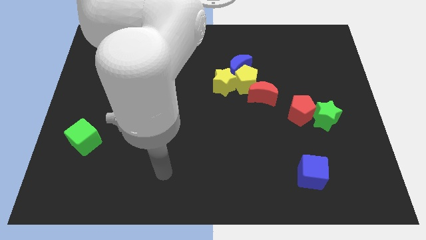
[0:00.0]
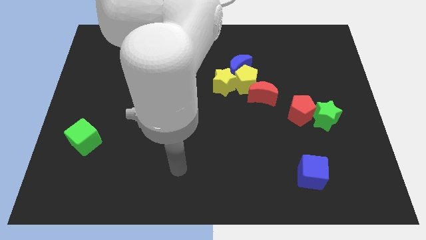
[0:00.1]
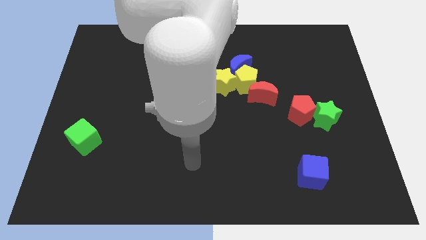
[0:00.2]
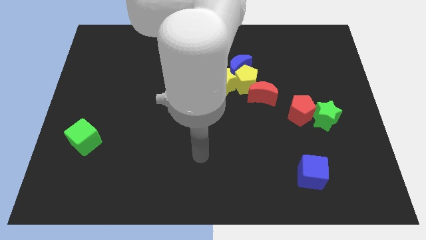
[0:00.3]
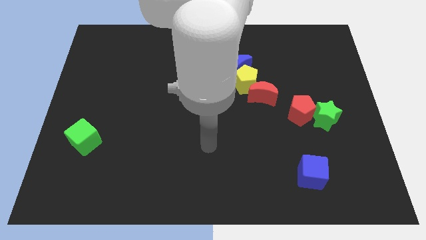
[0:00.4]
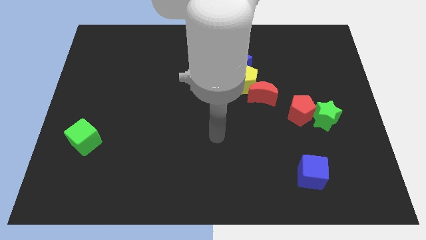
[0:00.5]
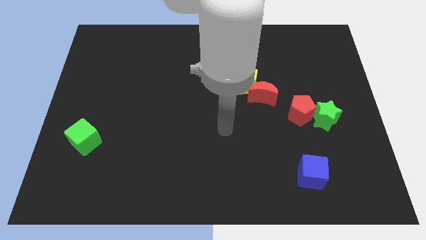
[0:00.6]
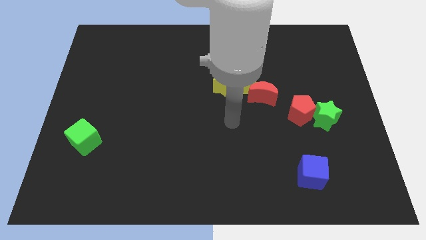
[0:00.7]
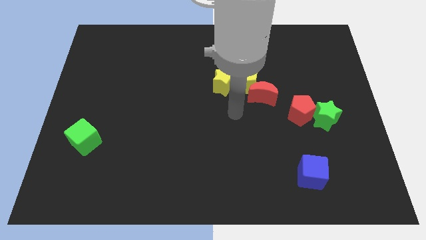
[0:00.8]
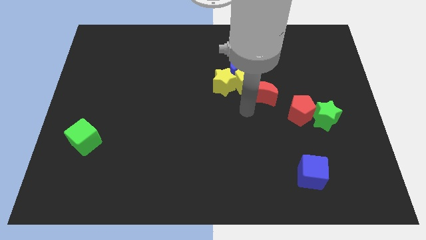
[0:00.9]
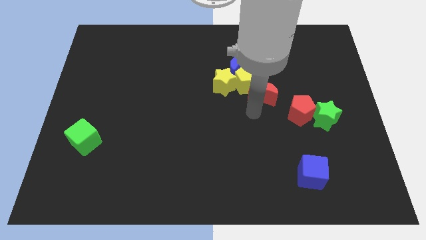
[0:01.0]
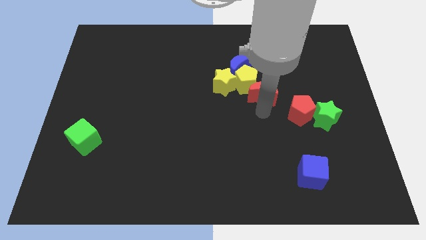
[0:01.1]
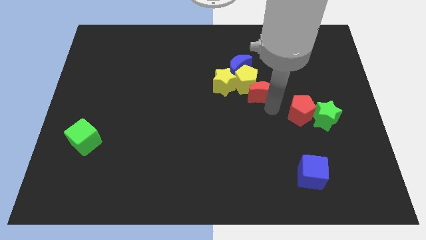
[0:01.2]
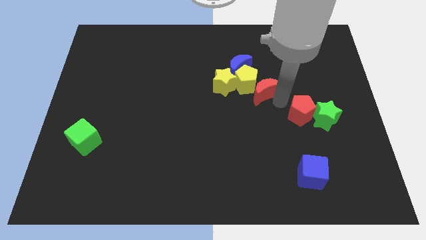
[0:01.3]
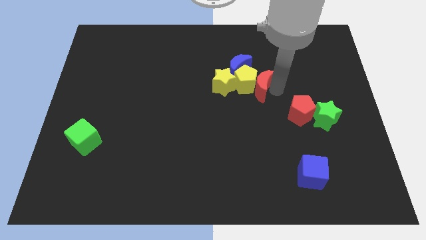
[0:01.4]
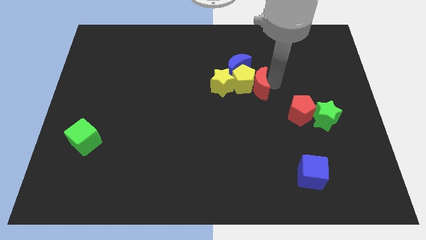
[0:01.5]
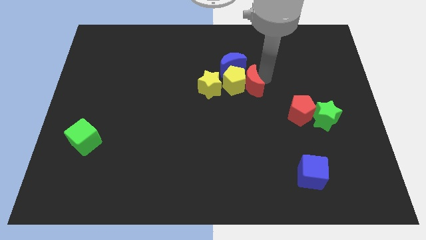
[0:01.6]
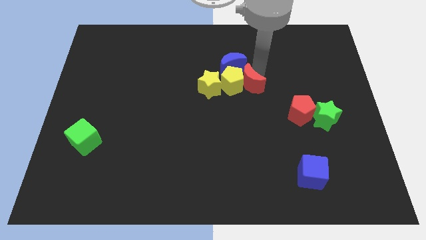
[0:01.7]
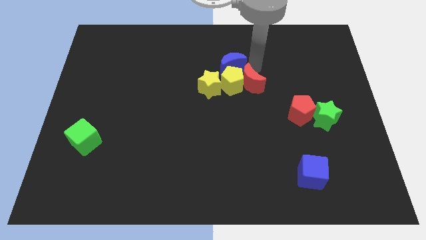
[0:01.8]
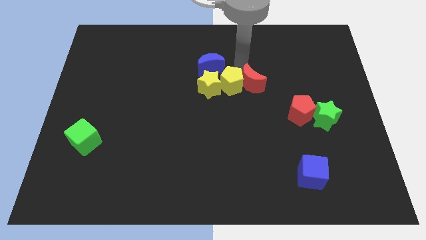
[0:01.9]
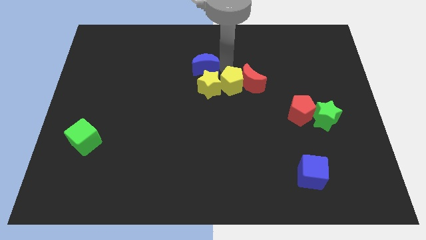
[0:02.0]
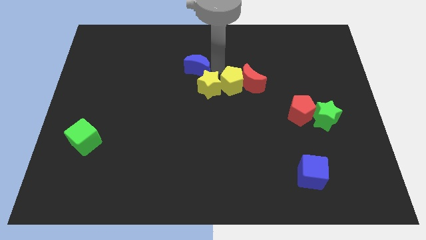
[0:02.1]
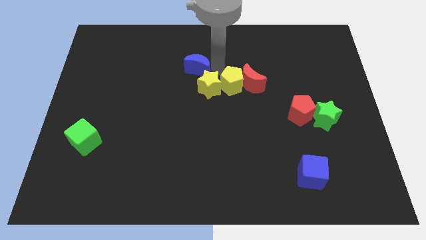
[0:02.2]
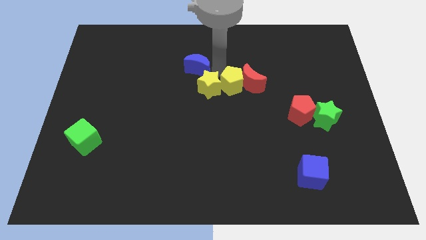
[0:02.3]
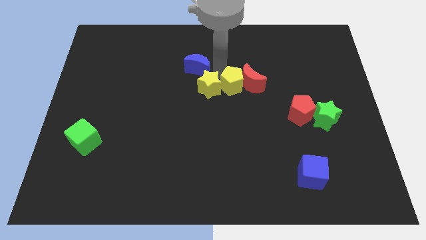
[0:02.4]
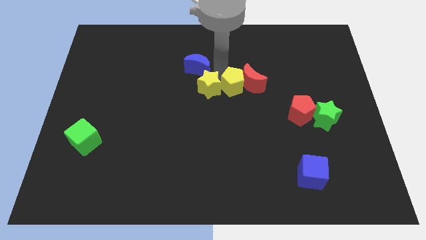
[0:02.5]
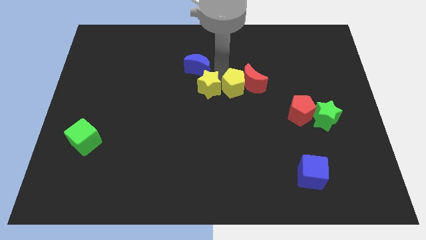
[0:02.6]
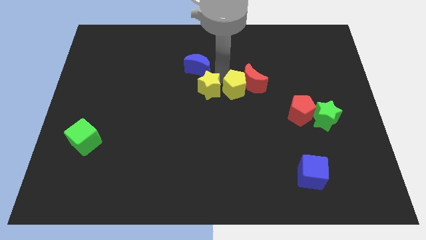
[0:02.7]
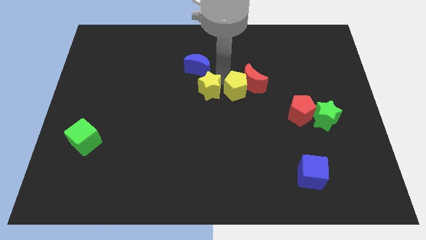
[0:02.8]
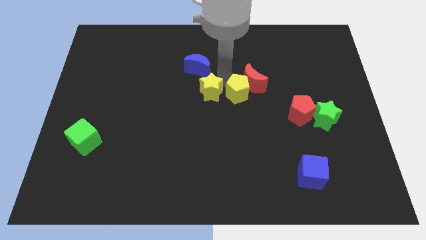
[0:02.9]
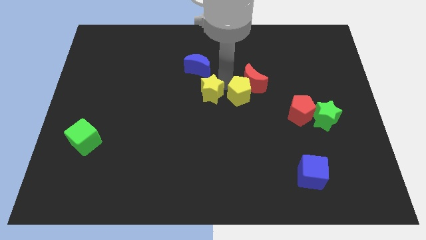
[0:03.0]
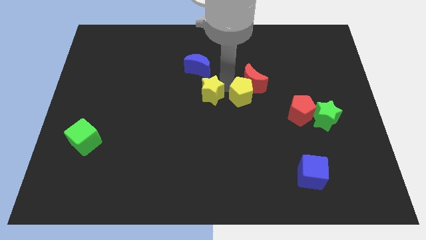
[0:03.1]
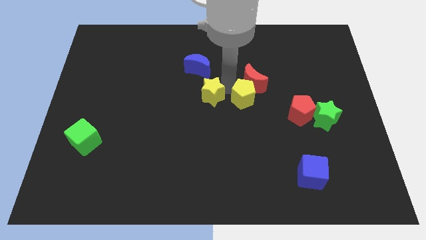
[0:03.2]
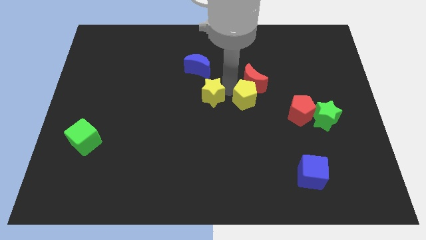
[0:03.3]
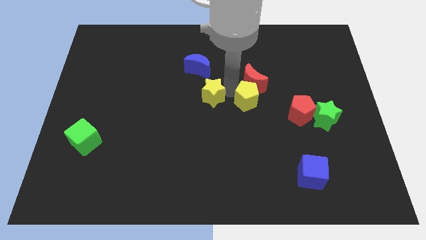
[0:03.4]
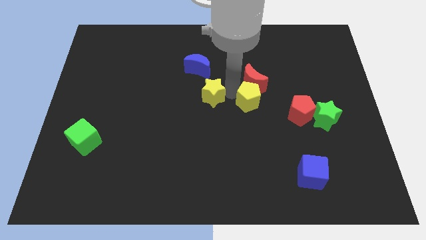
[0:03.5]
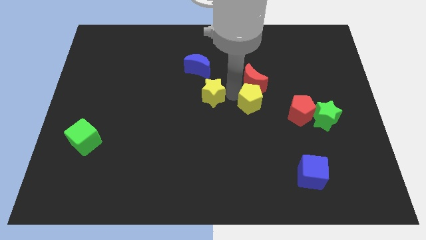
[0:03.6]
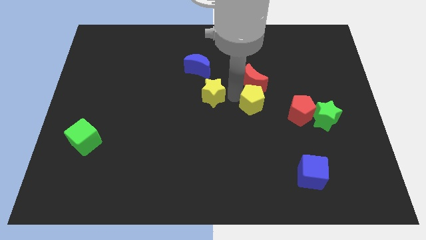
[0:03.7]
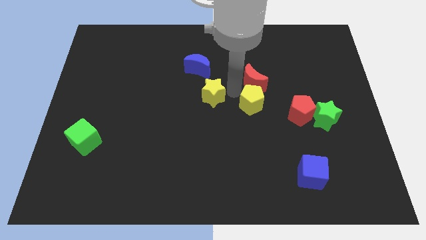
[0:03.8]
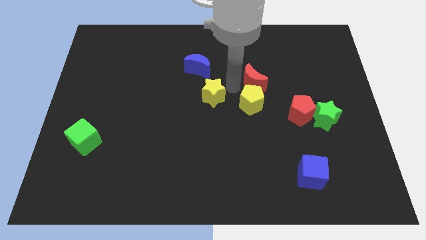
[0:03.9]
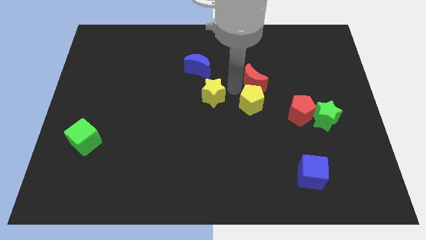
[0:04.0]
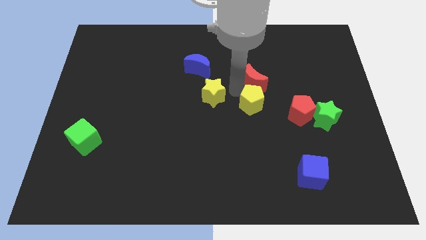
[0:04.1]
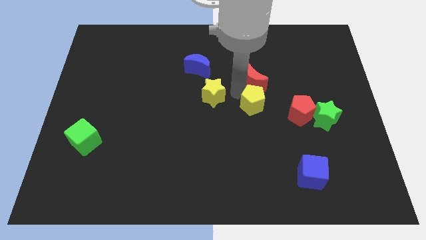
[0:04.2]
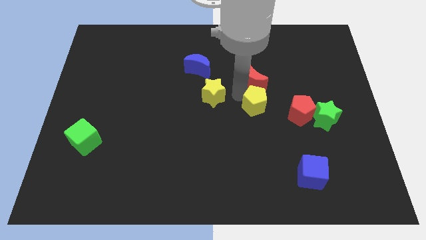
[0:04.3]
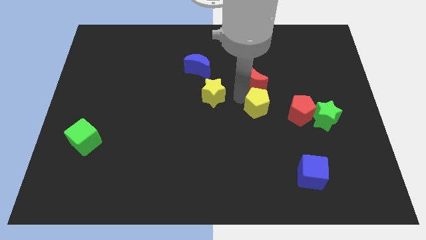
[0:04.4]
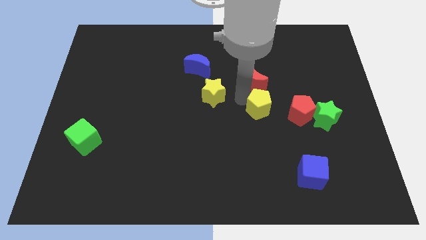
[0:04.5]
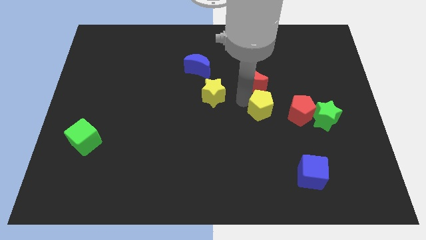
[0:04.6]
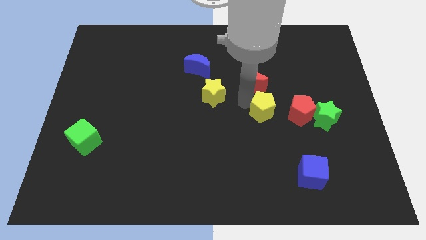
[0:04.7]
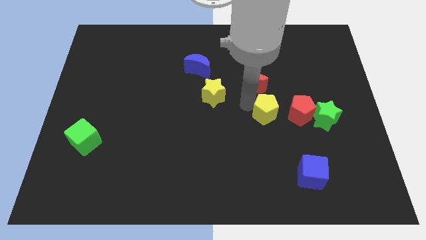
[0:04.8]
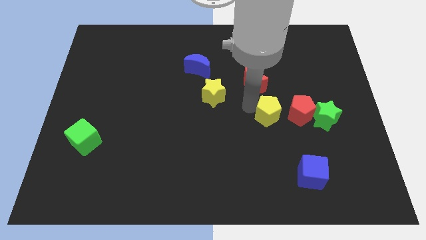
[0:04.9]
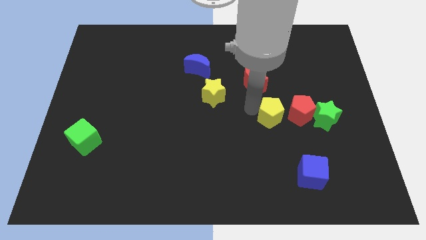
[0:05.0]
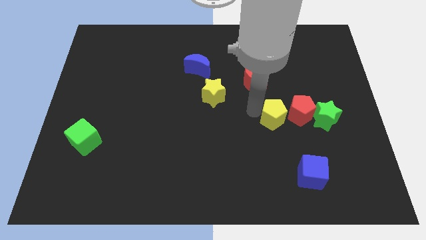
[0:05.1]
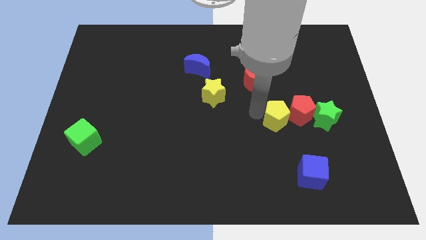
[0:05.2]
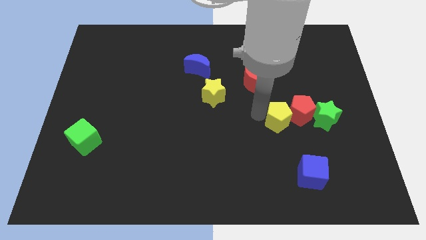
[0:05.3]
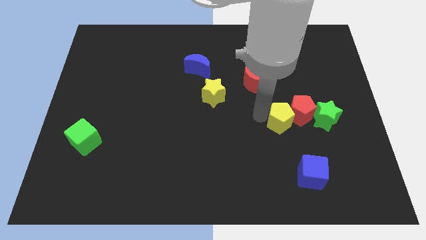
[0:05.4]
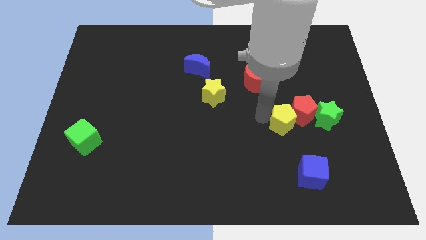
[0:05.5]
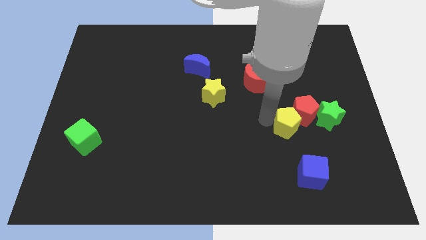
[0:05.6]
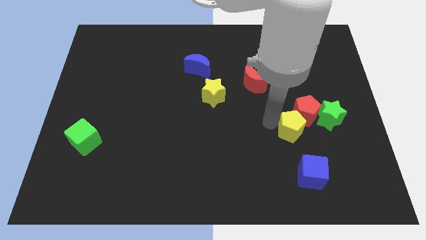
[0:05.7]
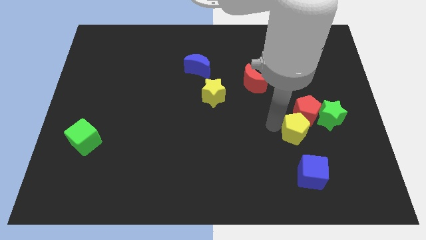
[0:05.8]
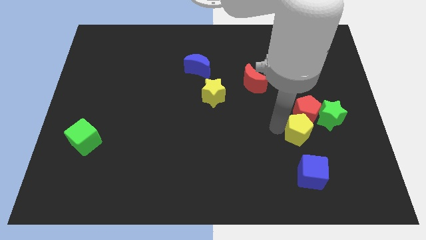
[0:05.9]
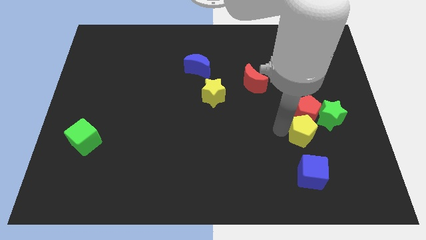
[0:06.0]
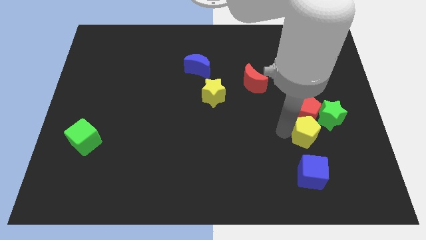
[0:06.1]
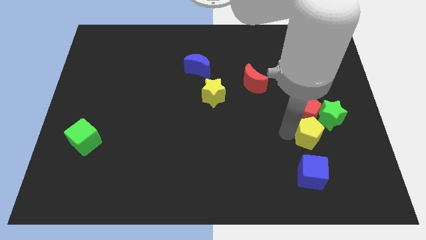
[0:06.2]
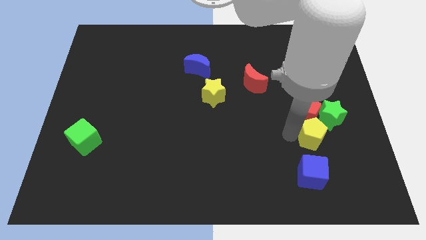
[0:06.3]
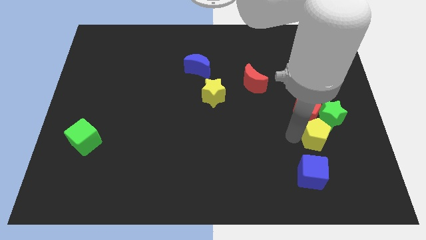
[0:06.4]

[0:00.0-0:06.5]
move the yellow pentagon to the top right of the blue cube
